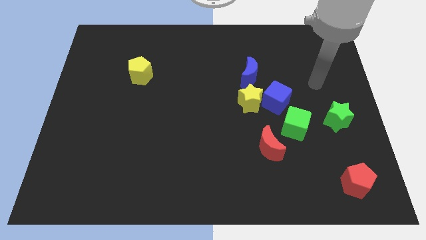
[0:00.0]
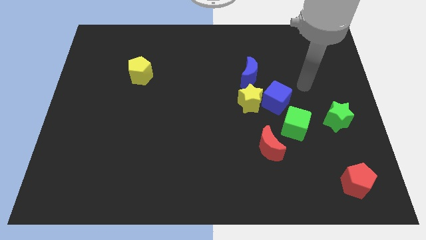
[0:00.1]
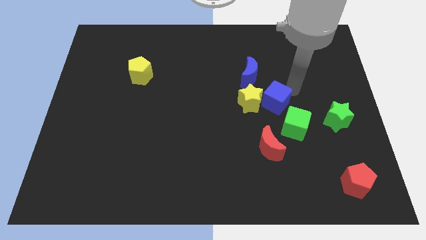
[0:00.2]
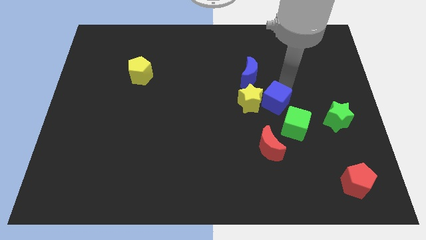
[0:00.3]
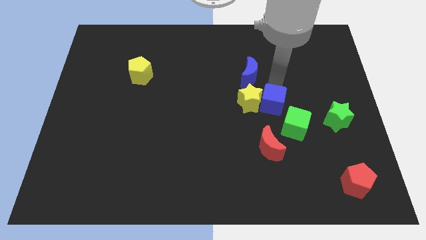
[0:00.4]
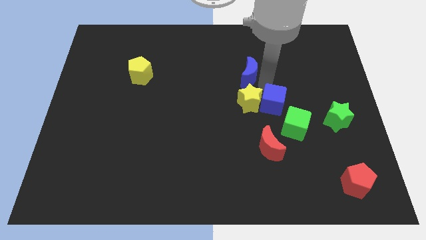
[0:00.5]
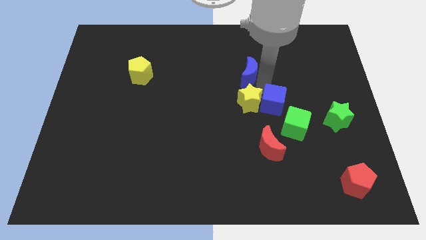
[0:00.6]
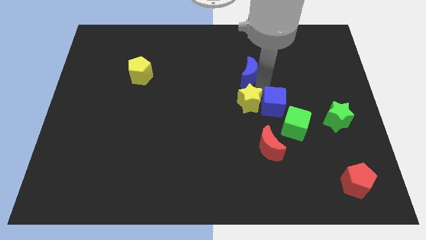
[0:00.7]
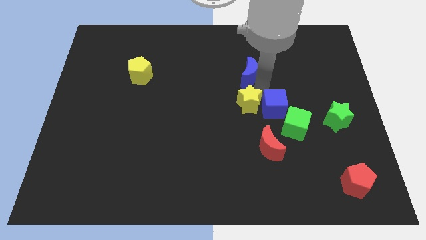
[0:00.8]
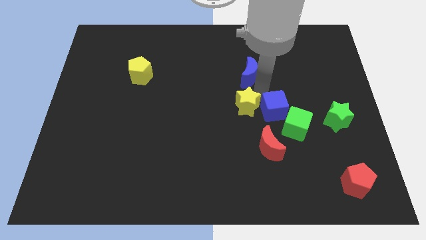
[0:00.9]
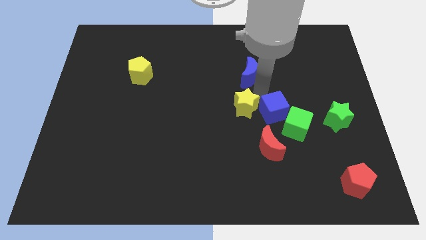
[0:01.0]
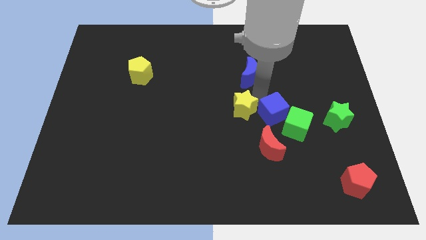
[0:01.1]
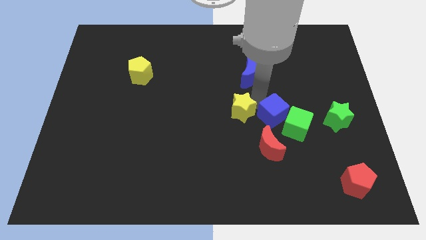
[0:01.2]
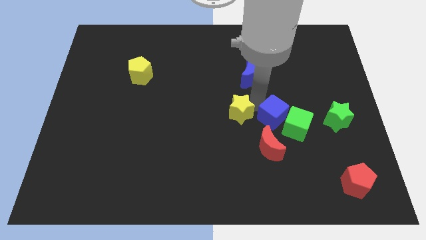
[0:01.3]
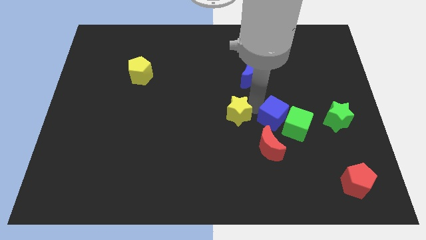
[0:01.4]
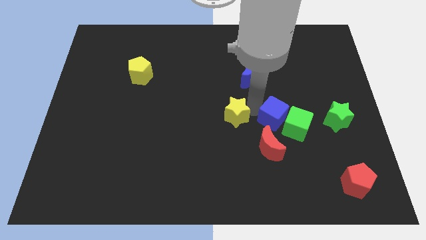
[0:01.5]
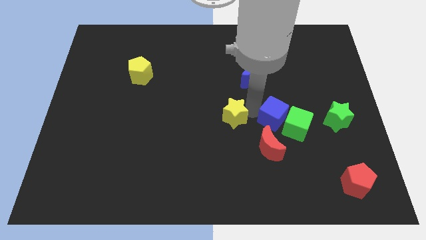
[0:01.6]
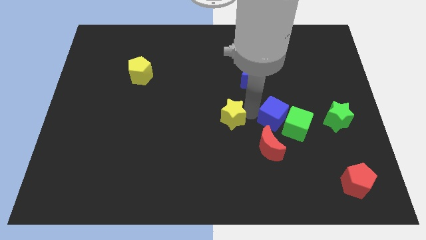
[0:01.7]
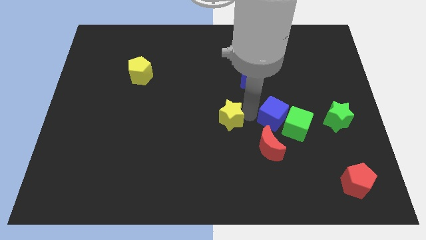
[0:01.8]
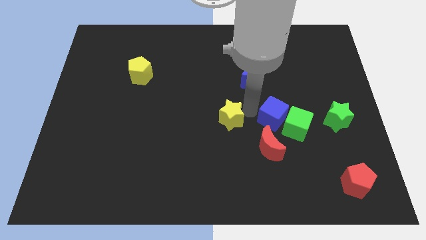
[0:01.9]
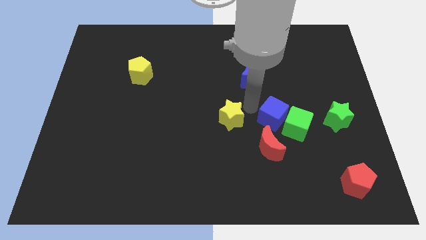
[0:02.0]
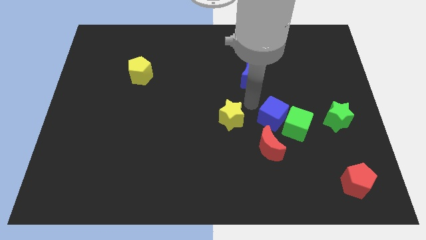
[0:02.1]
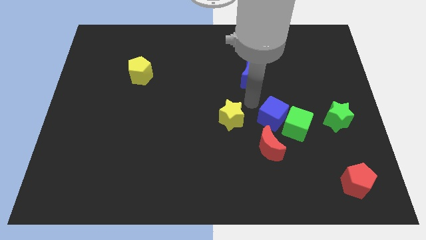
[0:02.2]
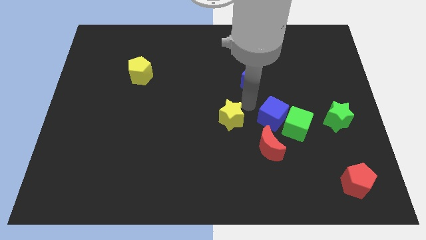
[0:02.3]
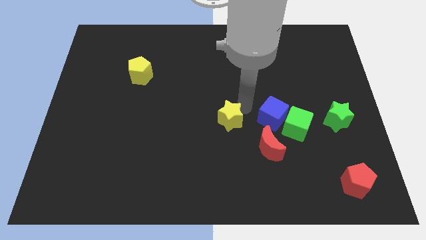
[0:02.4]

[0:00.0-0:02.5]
move the yellow star away from the blue cube and blue moon

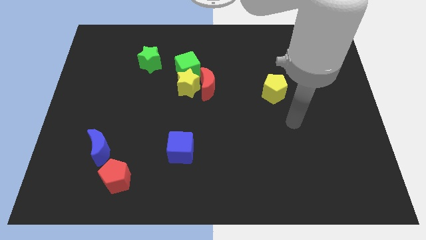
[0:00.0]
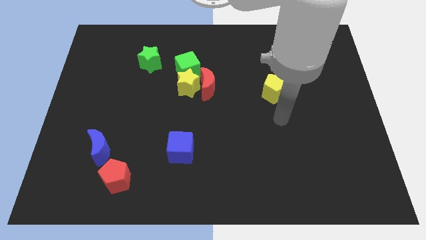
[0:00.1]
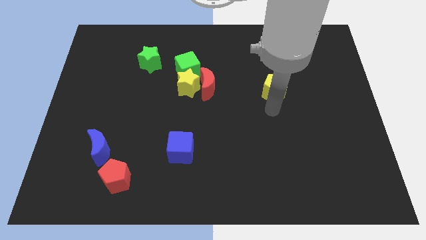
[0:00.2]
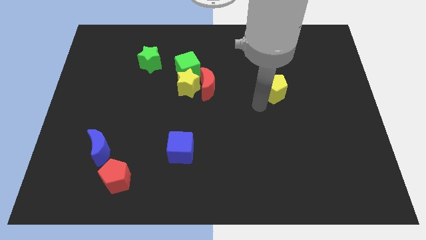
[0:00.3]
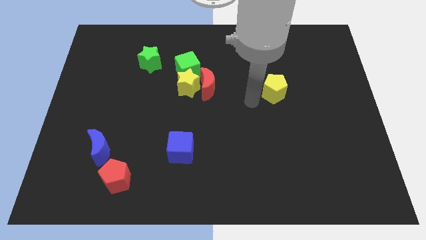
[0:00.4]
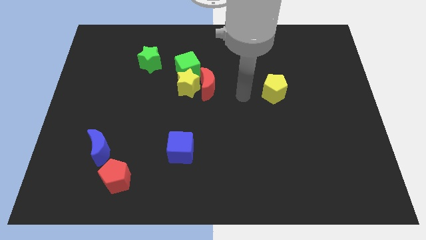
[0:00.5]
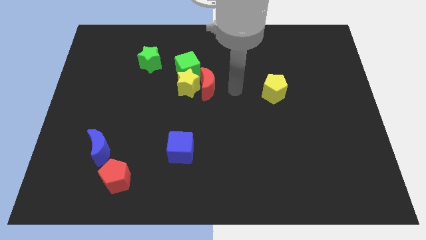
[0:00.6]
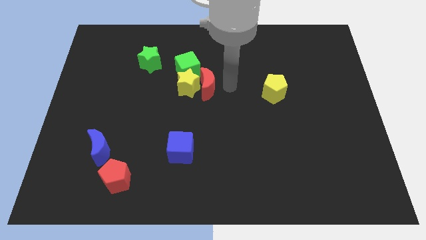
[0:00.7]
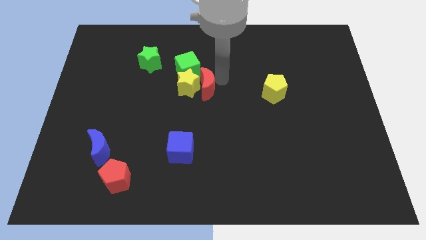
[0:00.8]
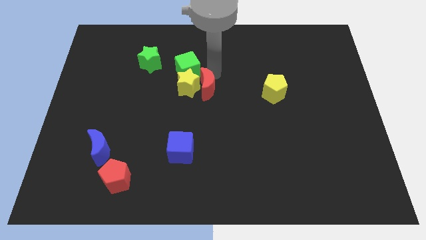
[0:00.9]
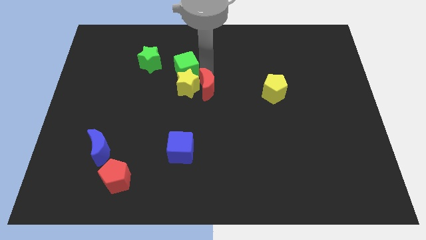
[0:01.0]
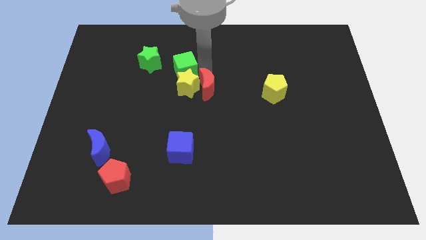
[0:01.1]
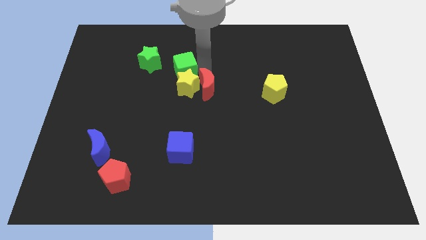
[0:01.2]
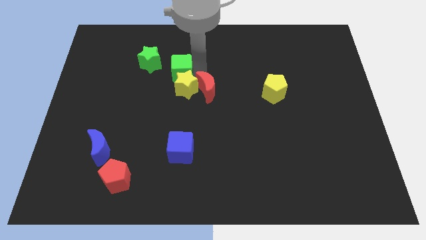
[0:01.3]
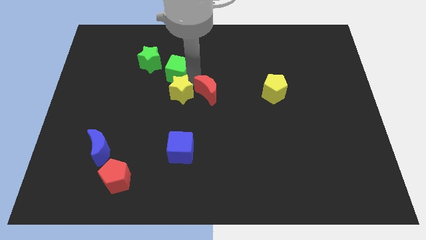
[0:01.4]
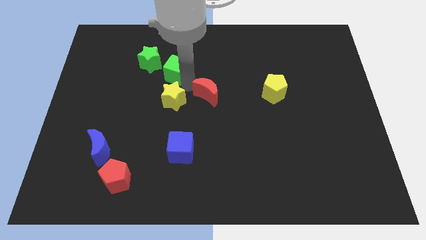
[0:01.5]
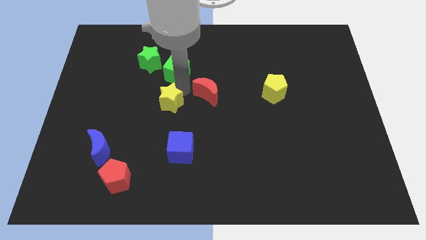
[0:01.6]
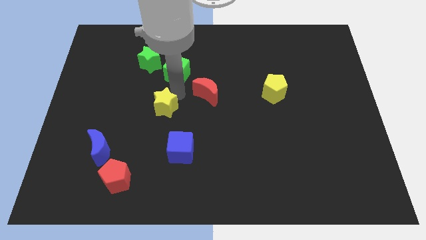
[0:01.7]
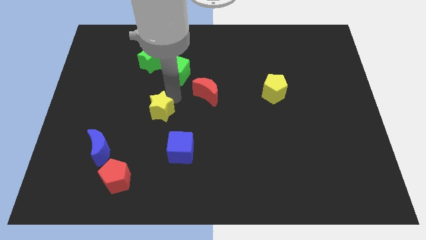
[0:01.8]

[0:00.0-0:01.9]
move the yellow star away from the red moon and green cube

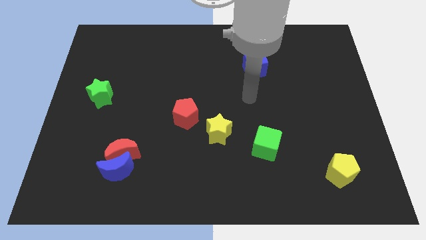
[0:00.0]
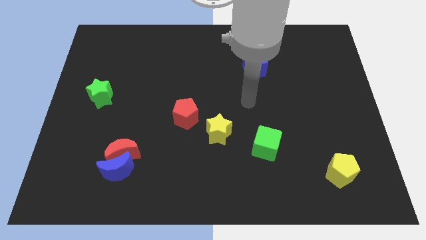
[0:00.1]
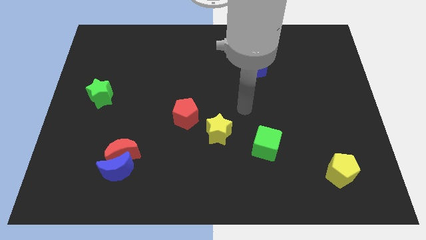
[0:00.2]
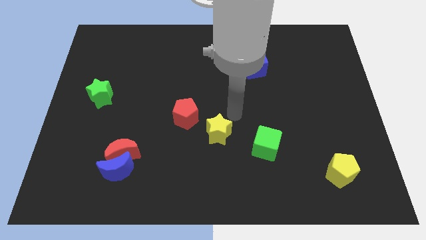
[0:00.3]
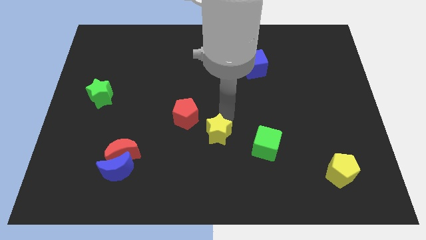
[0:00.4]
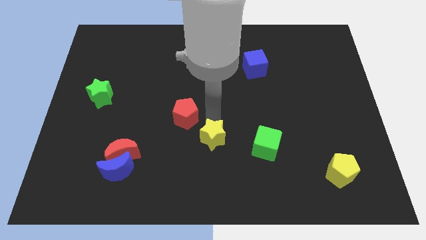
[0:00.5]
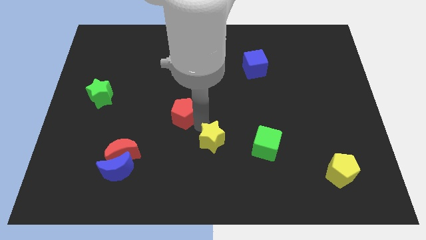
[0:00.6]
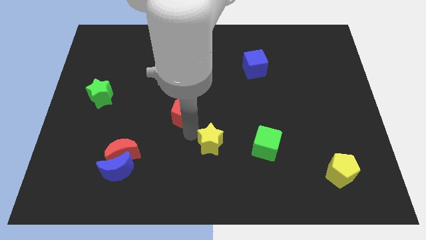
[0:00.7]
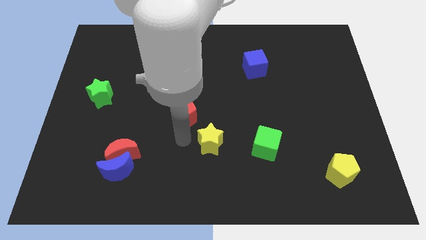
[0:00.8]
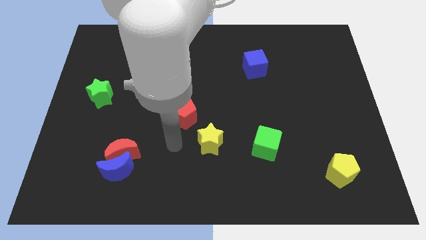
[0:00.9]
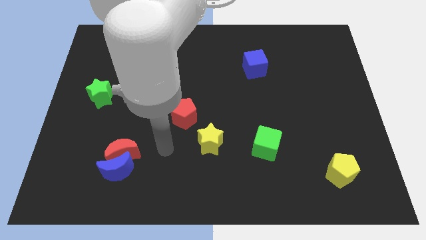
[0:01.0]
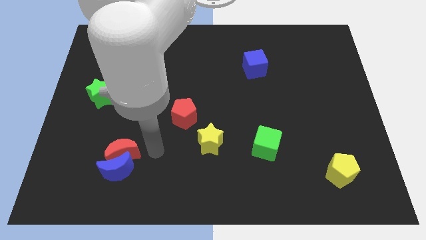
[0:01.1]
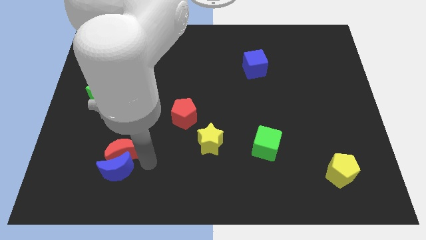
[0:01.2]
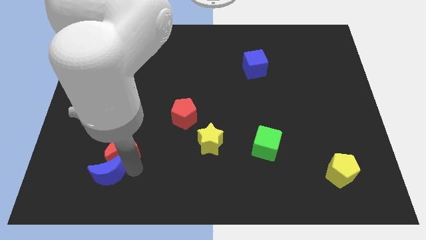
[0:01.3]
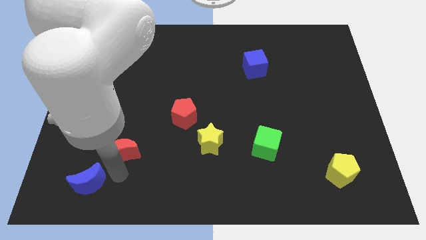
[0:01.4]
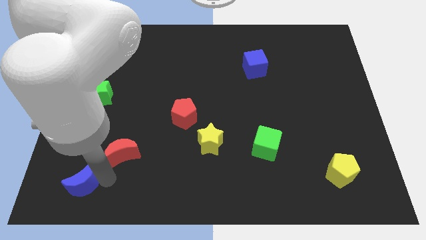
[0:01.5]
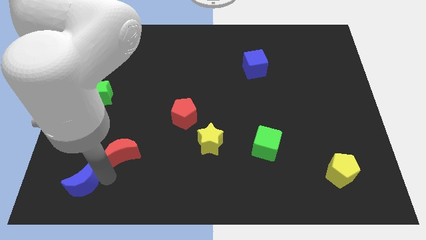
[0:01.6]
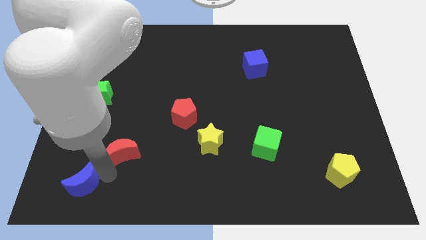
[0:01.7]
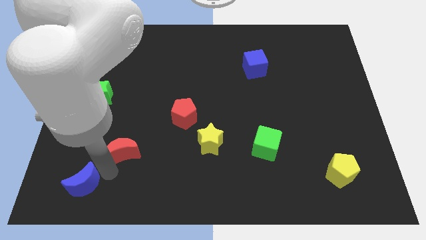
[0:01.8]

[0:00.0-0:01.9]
pull the red moon apart from the blue moon

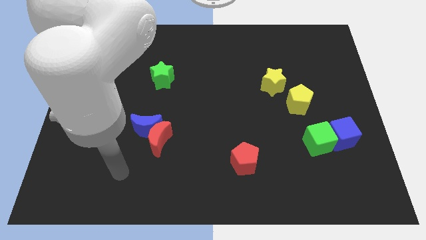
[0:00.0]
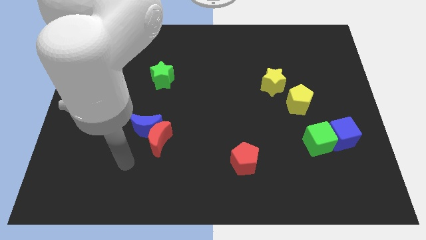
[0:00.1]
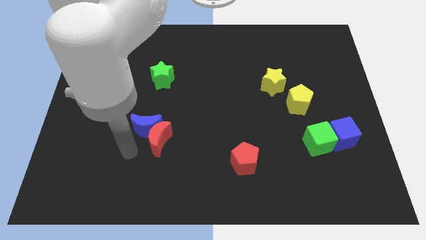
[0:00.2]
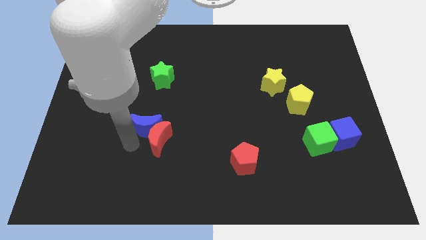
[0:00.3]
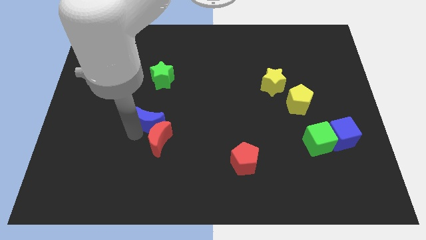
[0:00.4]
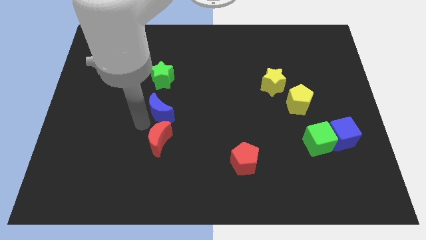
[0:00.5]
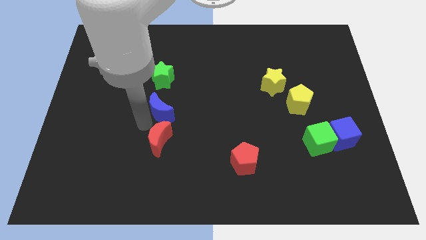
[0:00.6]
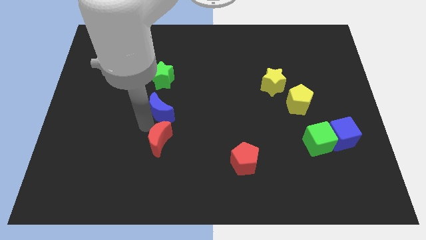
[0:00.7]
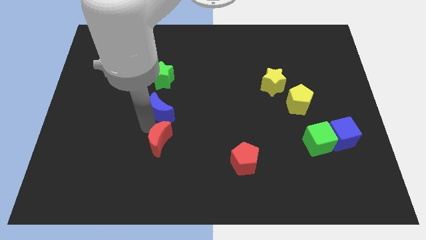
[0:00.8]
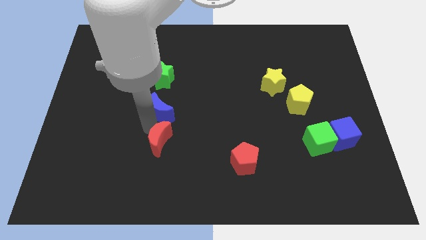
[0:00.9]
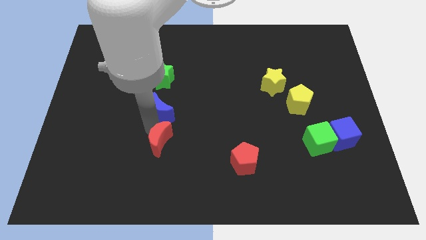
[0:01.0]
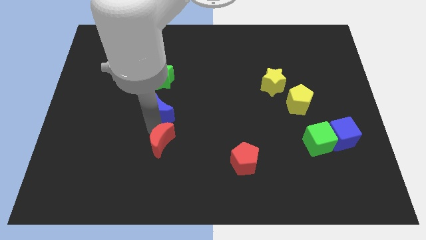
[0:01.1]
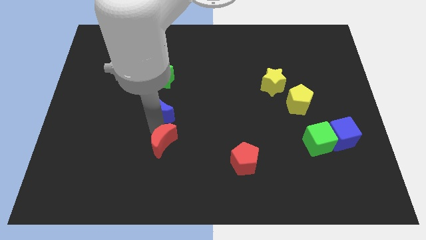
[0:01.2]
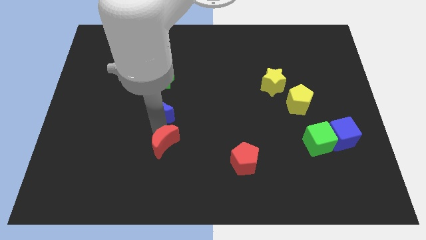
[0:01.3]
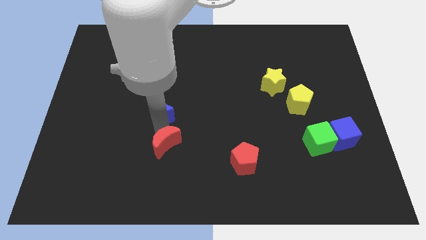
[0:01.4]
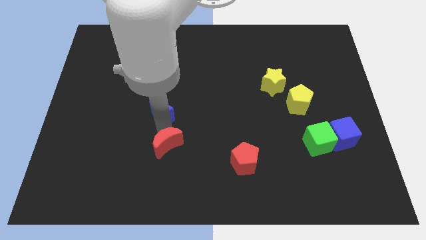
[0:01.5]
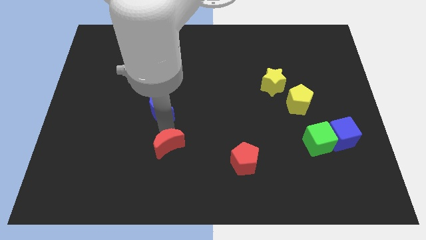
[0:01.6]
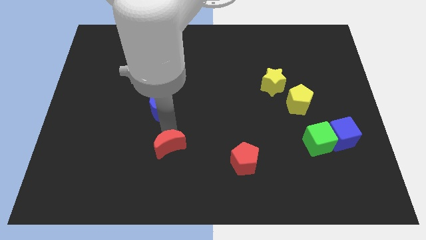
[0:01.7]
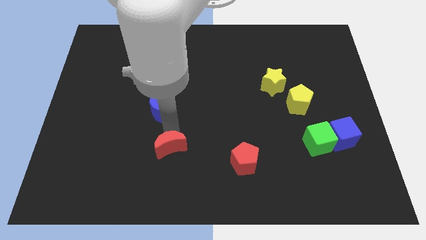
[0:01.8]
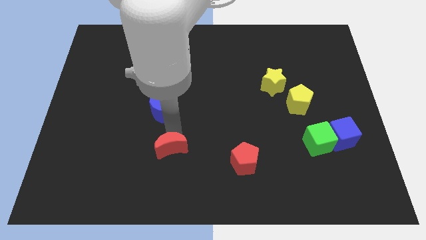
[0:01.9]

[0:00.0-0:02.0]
move the red moon away from the blue moon

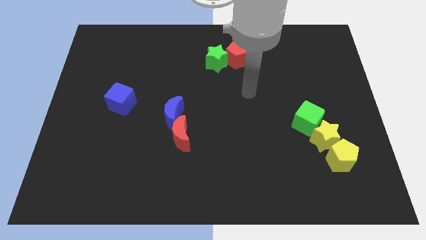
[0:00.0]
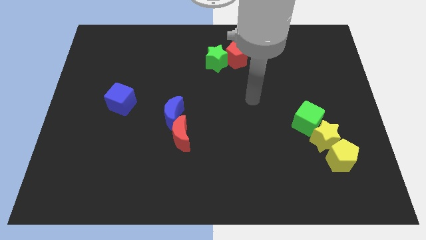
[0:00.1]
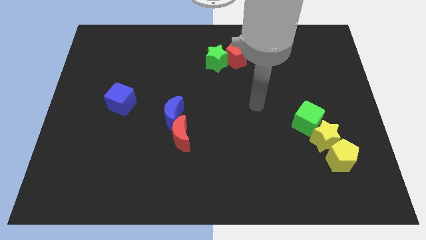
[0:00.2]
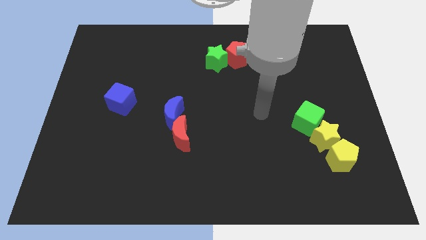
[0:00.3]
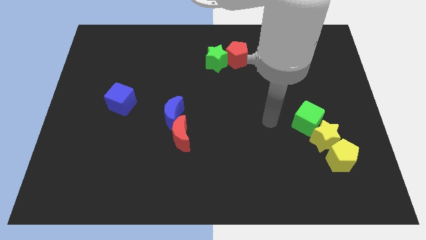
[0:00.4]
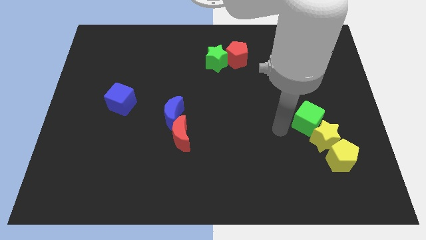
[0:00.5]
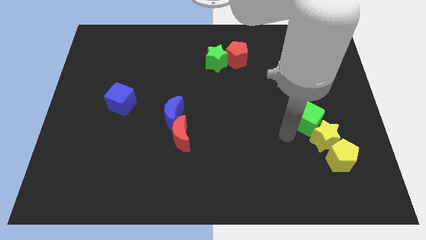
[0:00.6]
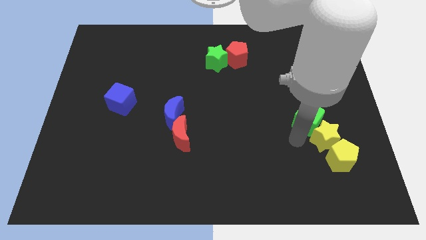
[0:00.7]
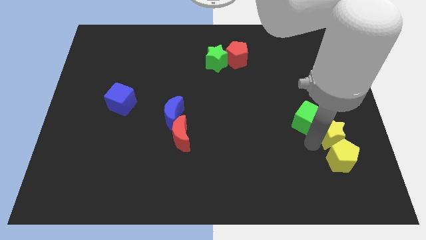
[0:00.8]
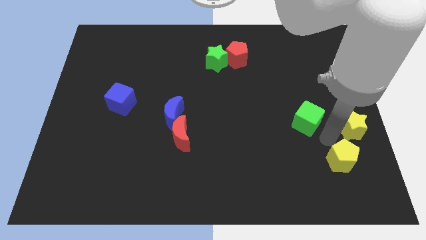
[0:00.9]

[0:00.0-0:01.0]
move the green cube away from the yellow star
